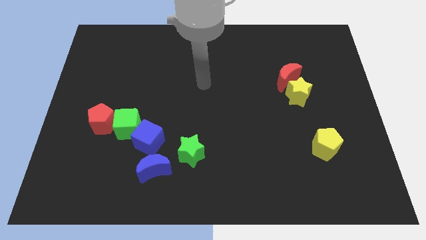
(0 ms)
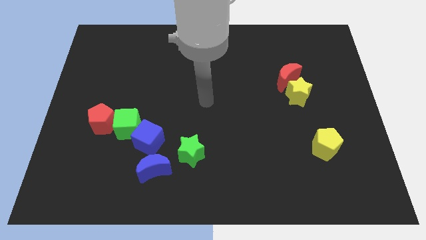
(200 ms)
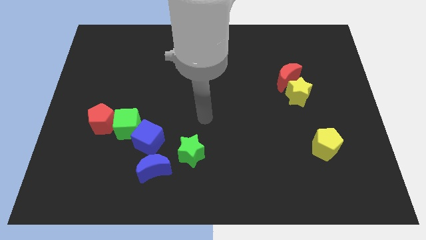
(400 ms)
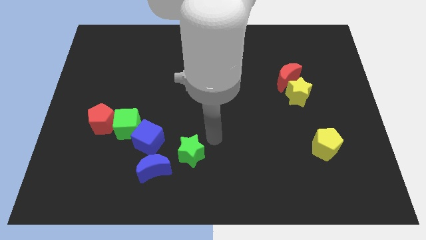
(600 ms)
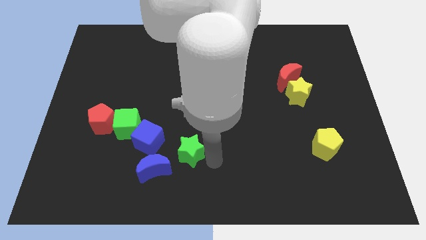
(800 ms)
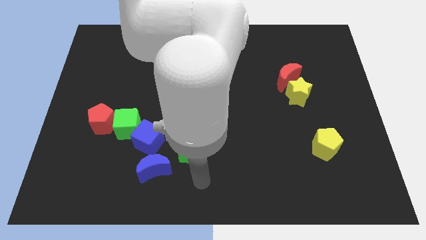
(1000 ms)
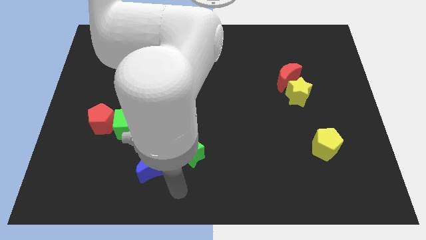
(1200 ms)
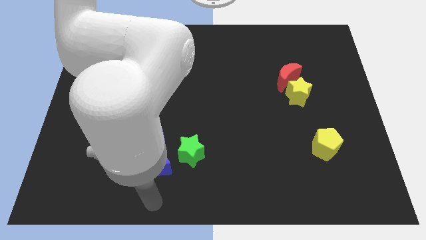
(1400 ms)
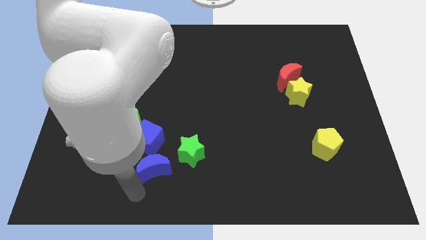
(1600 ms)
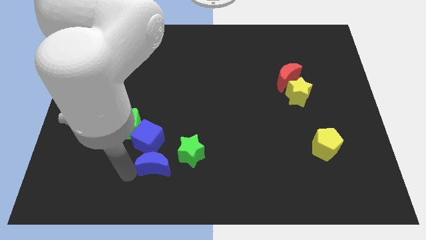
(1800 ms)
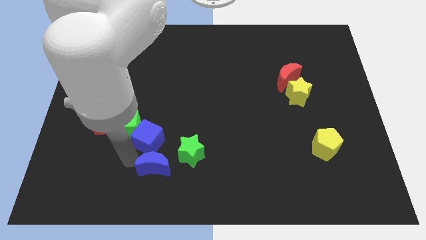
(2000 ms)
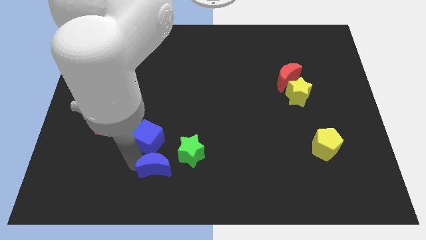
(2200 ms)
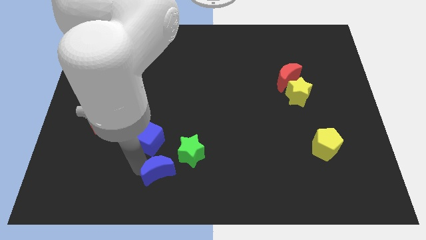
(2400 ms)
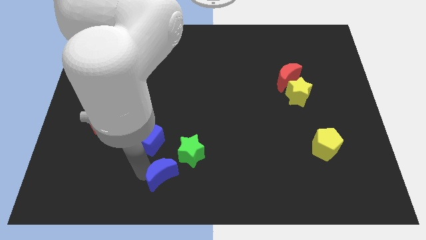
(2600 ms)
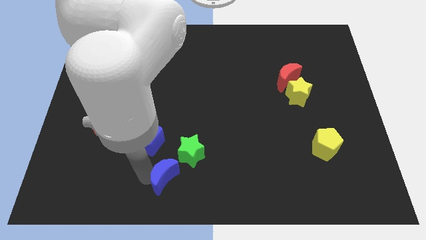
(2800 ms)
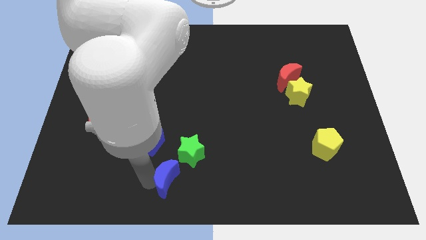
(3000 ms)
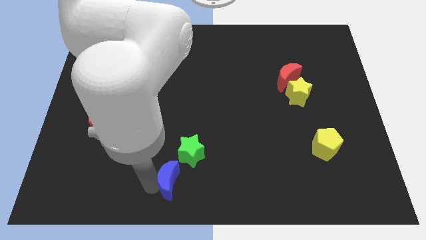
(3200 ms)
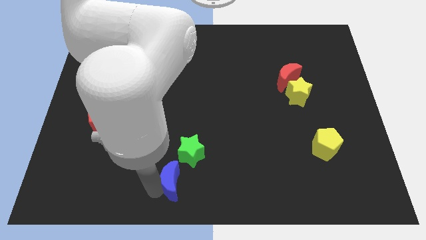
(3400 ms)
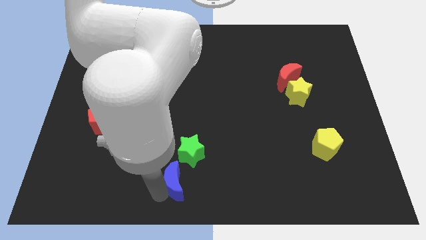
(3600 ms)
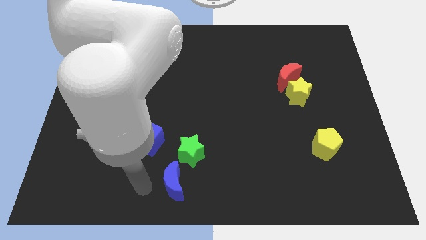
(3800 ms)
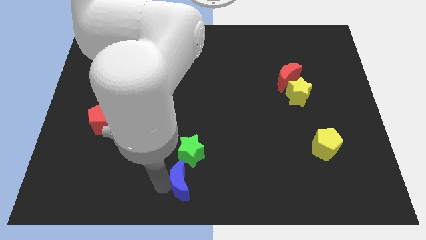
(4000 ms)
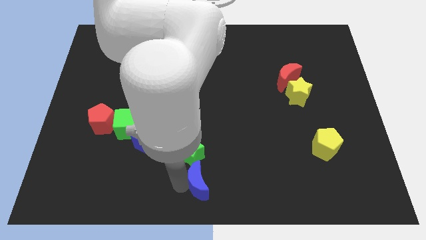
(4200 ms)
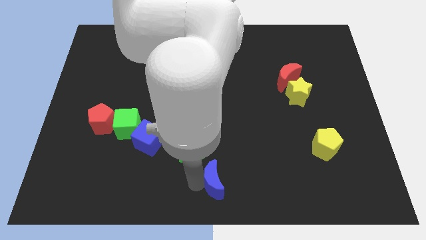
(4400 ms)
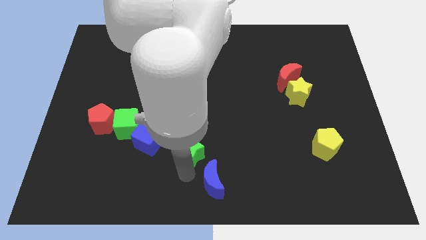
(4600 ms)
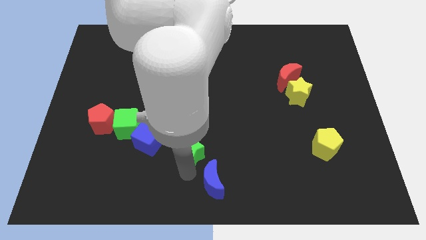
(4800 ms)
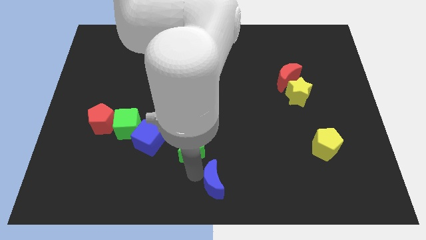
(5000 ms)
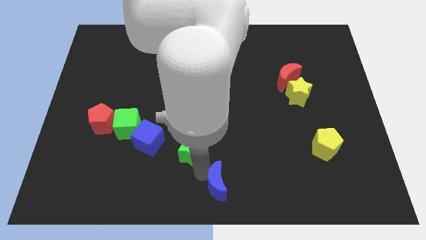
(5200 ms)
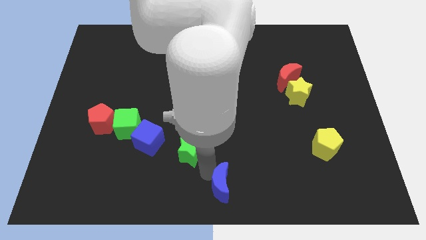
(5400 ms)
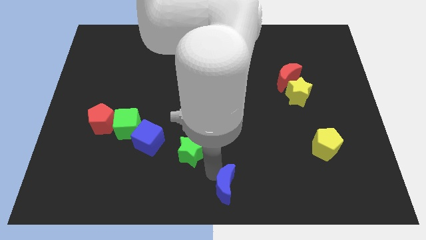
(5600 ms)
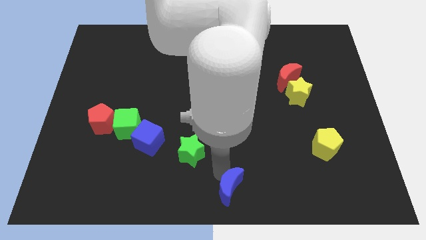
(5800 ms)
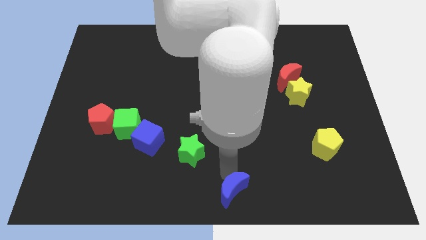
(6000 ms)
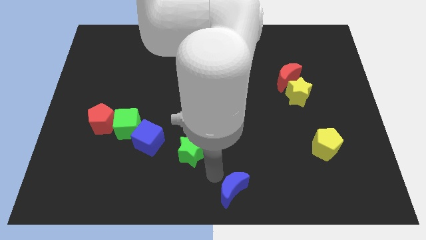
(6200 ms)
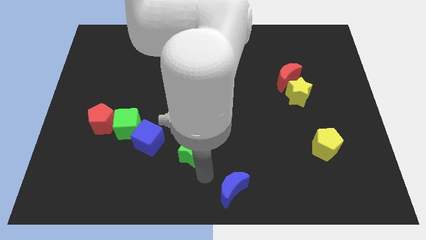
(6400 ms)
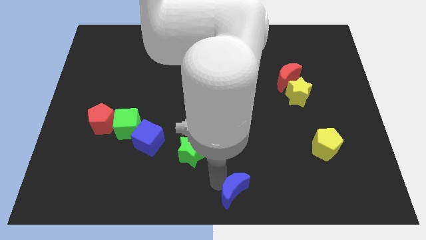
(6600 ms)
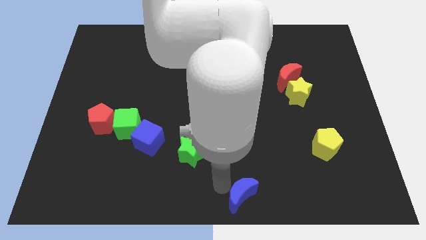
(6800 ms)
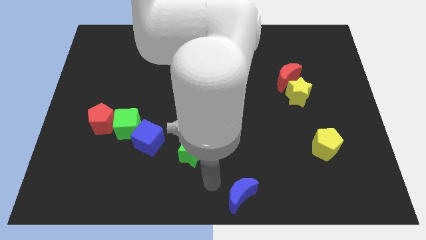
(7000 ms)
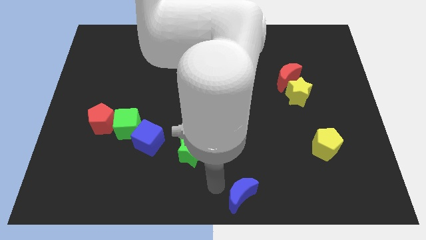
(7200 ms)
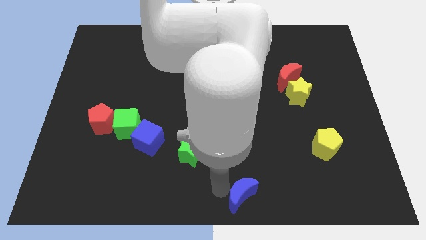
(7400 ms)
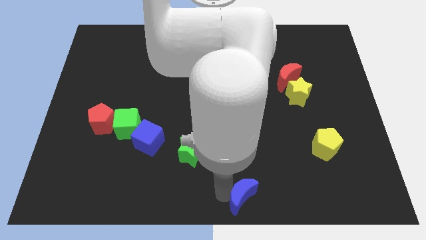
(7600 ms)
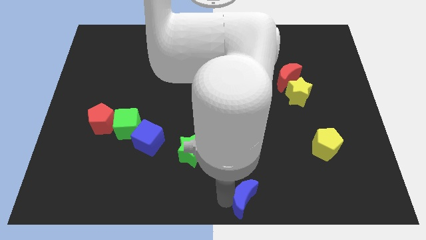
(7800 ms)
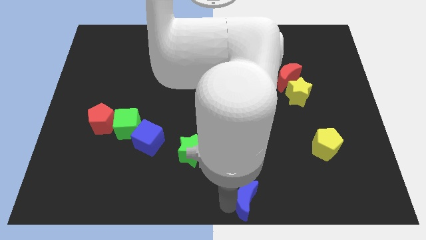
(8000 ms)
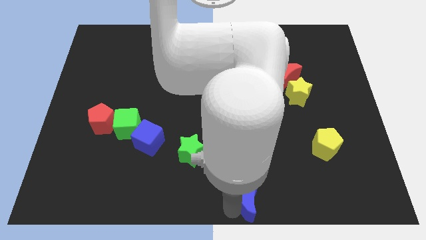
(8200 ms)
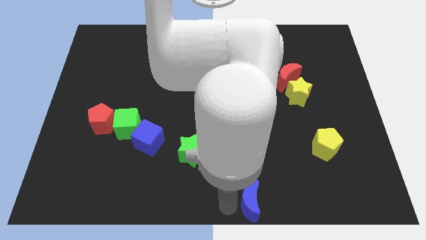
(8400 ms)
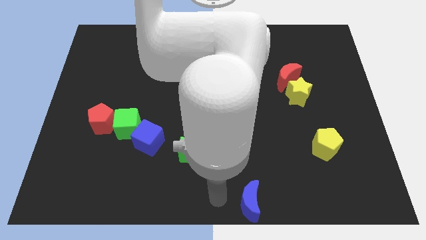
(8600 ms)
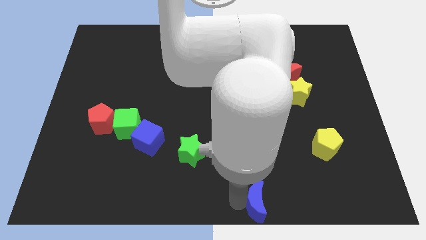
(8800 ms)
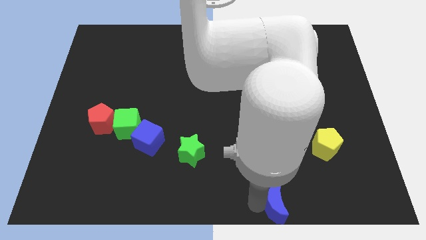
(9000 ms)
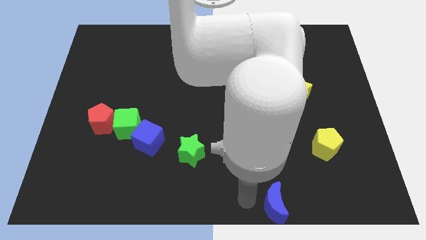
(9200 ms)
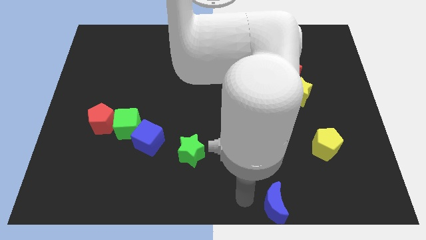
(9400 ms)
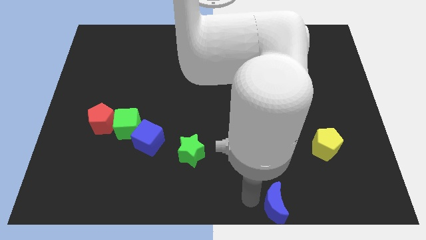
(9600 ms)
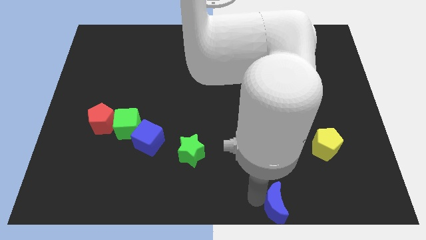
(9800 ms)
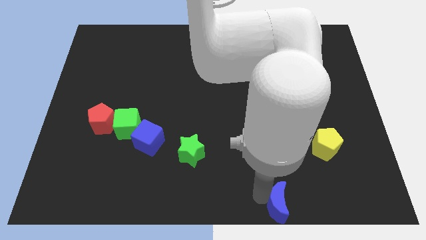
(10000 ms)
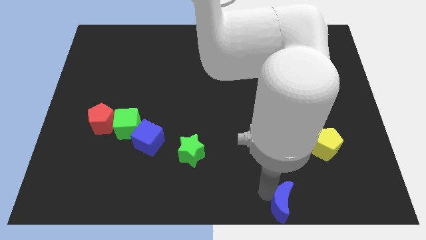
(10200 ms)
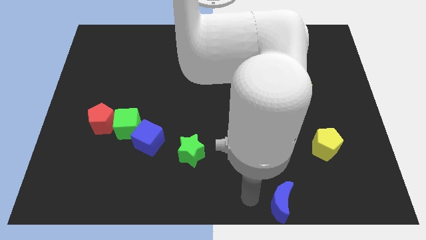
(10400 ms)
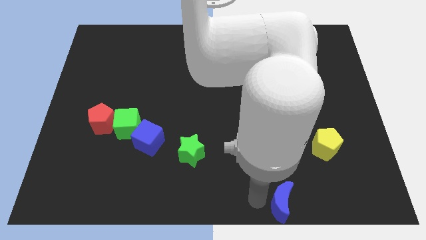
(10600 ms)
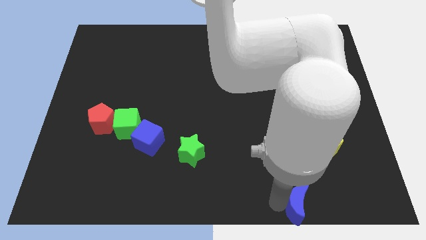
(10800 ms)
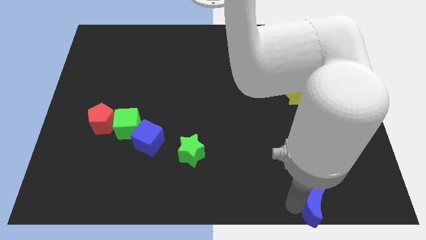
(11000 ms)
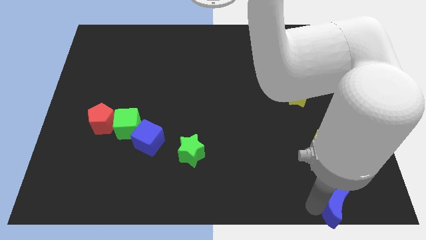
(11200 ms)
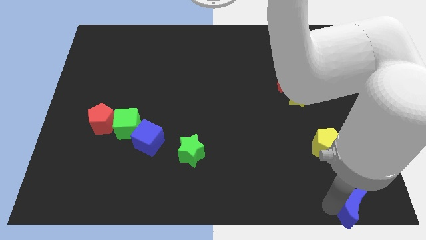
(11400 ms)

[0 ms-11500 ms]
put the blue moon to the bottom right corner

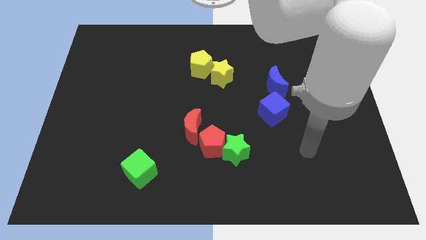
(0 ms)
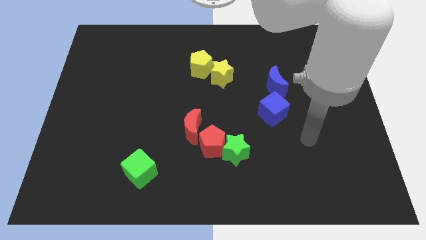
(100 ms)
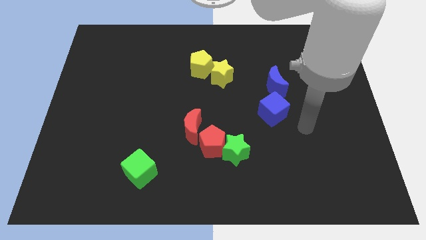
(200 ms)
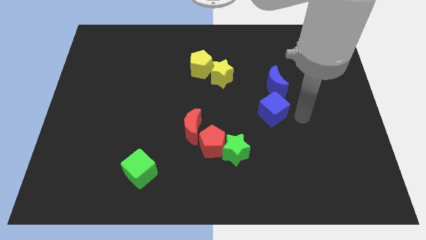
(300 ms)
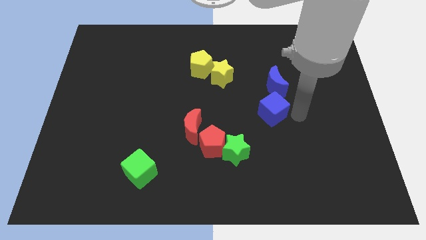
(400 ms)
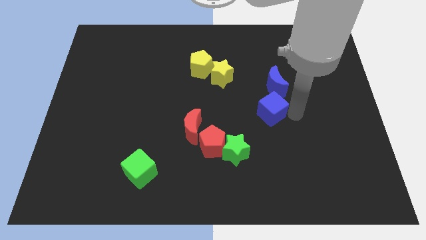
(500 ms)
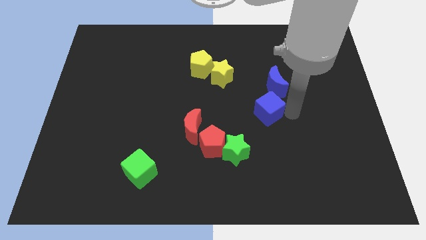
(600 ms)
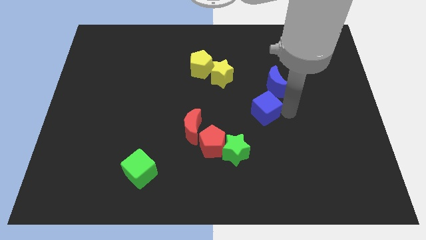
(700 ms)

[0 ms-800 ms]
move the blue cube to the middle of the board
